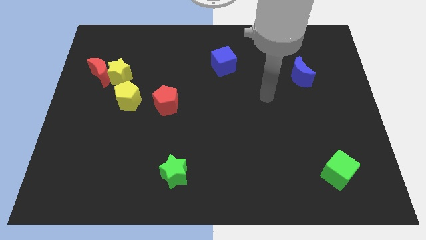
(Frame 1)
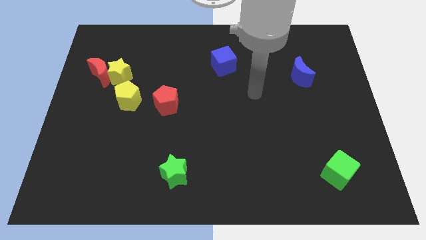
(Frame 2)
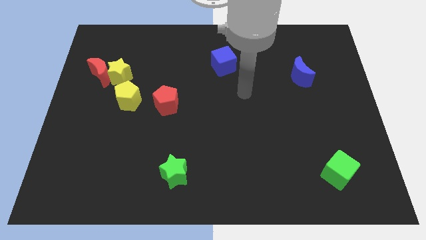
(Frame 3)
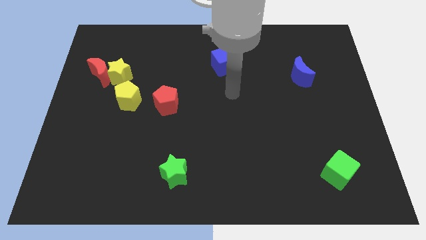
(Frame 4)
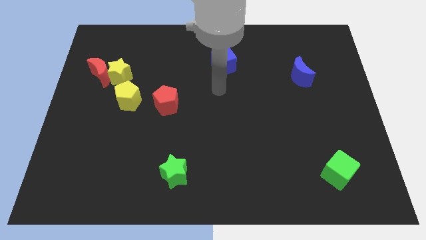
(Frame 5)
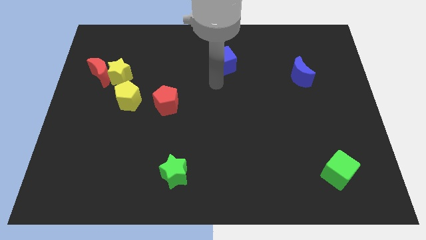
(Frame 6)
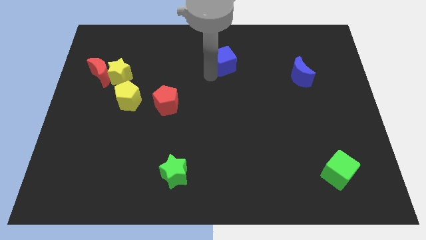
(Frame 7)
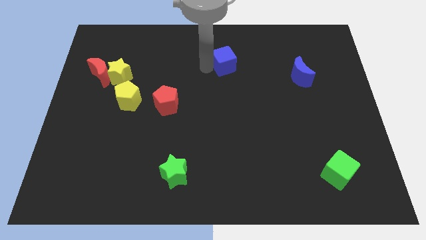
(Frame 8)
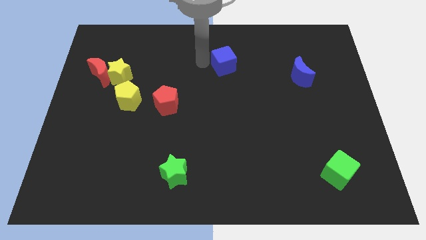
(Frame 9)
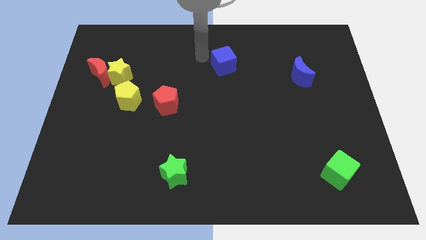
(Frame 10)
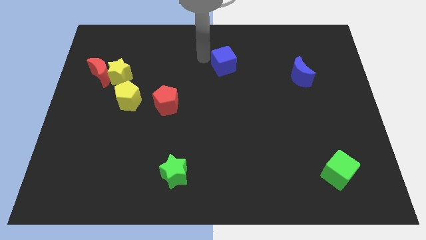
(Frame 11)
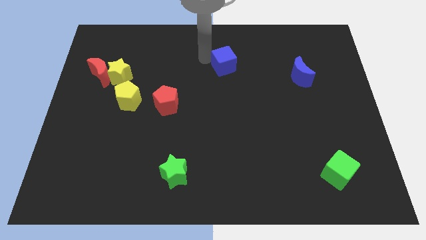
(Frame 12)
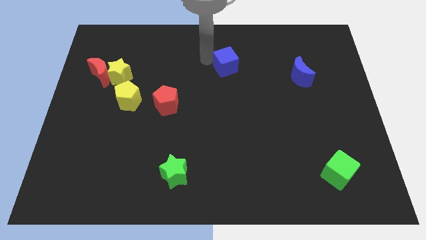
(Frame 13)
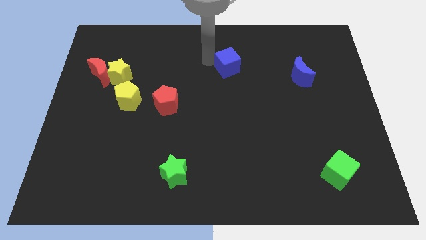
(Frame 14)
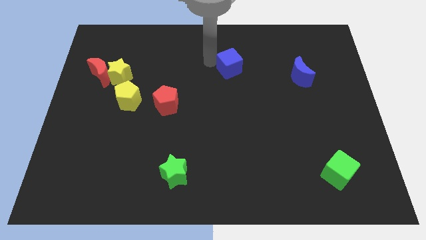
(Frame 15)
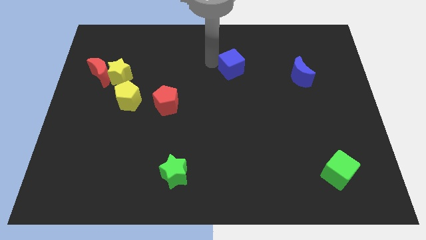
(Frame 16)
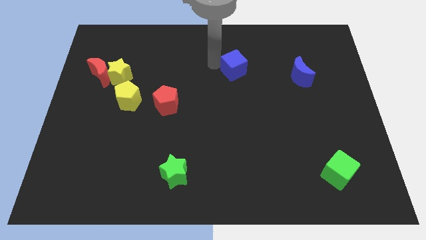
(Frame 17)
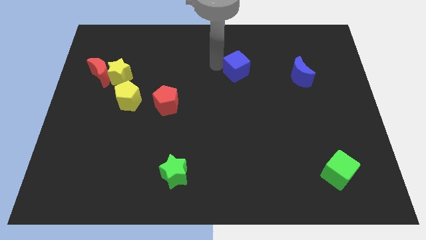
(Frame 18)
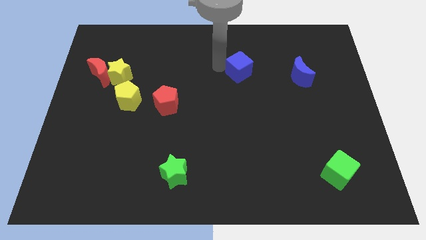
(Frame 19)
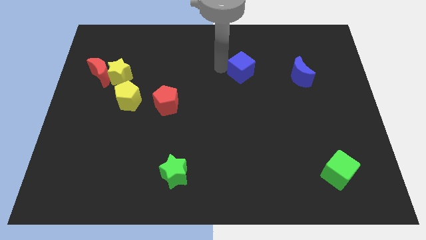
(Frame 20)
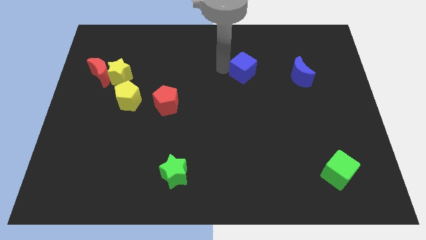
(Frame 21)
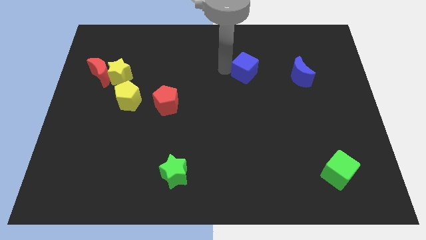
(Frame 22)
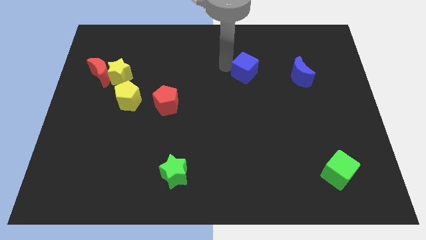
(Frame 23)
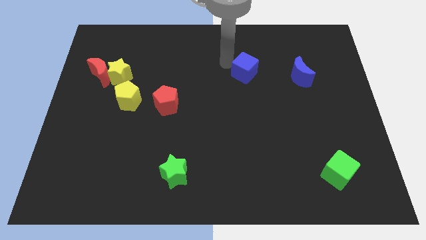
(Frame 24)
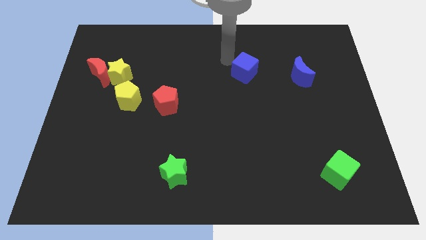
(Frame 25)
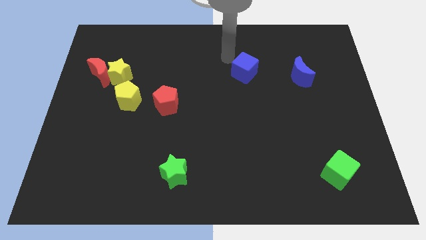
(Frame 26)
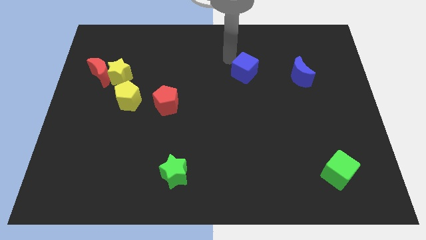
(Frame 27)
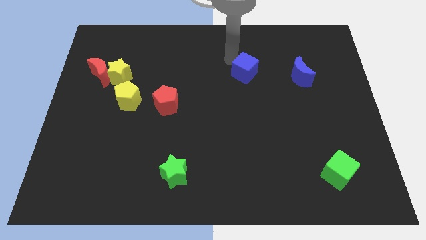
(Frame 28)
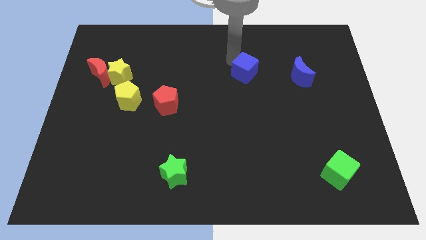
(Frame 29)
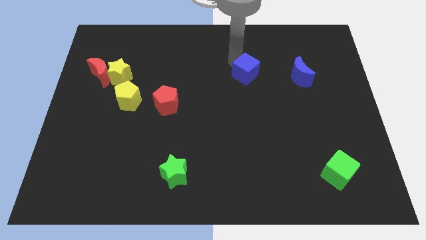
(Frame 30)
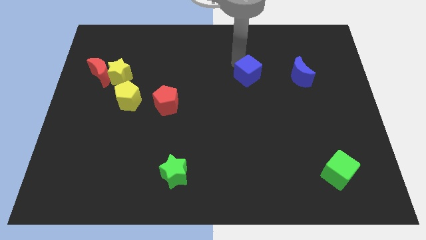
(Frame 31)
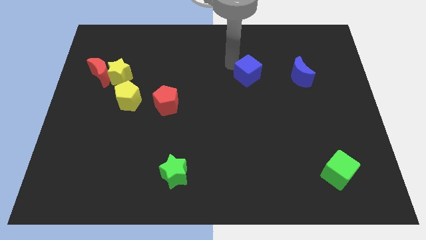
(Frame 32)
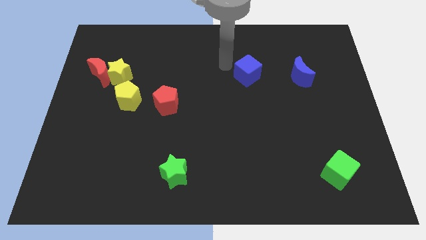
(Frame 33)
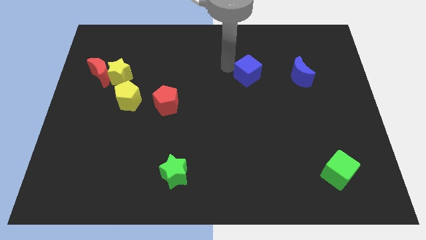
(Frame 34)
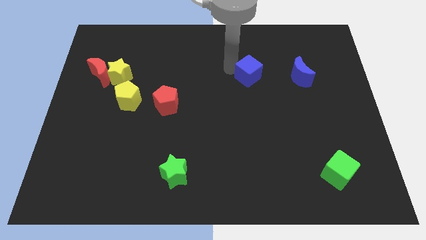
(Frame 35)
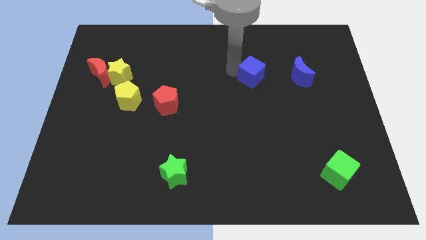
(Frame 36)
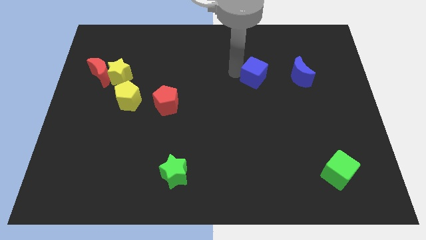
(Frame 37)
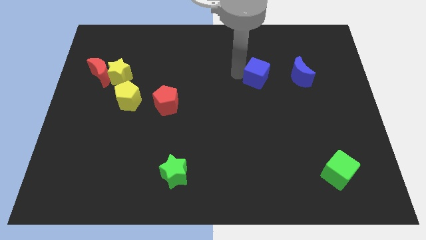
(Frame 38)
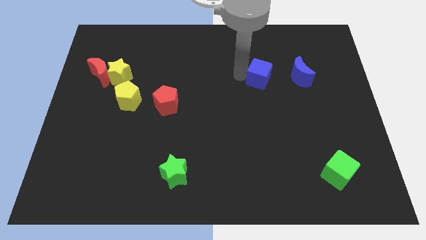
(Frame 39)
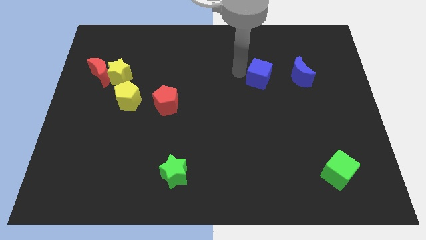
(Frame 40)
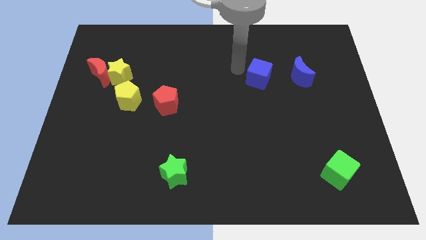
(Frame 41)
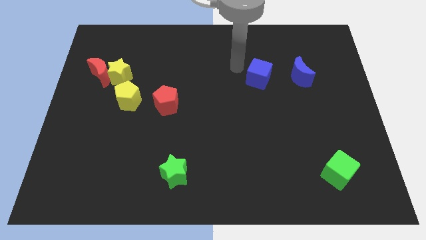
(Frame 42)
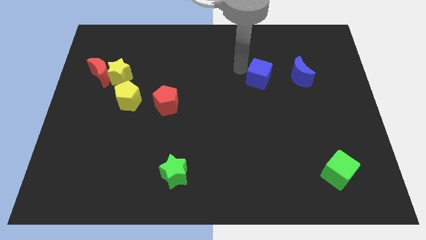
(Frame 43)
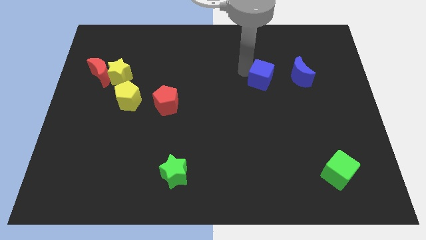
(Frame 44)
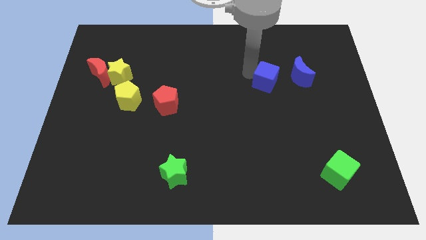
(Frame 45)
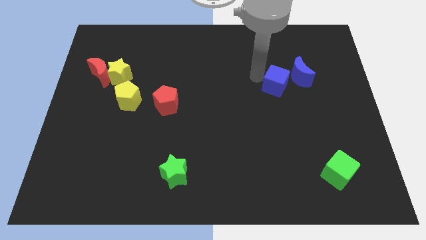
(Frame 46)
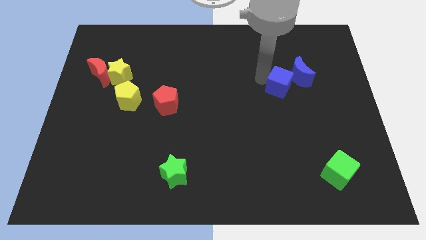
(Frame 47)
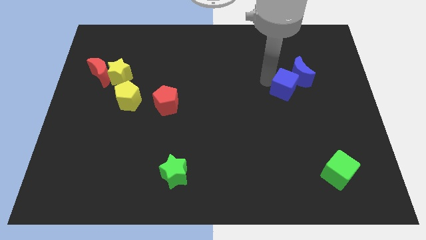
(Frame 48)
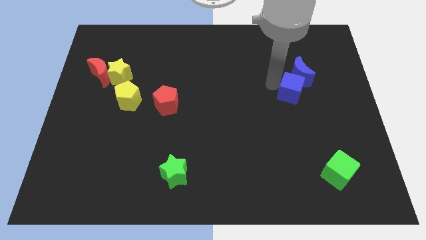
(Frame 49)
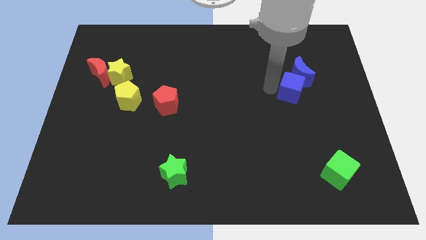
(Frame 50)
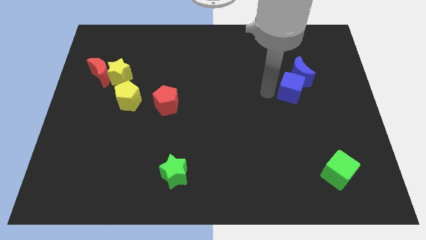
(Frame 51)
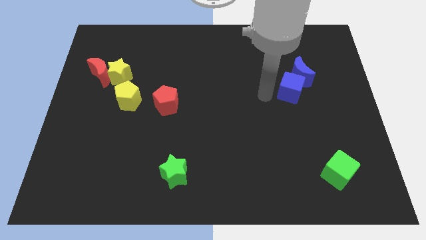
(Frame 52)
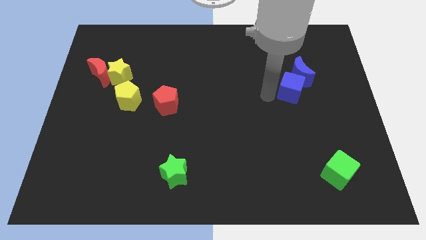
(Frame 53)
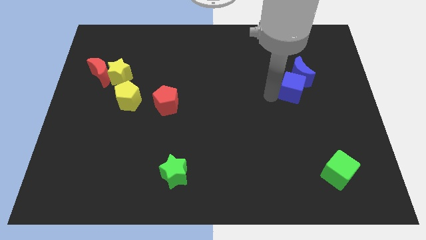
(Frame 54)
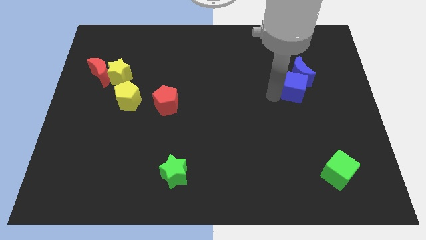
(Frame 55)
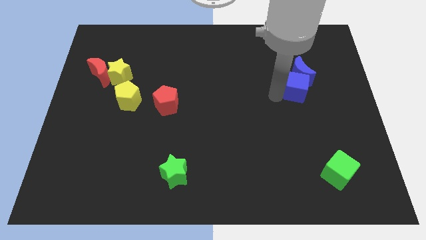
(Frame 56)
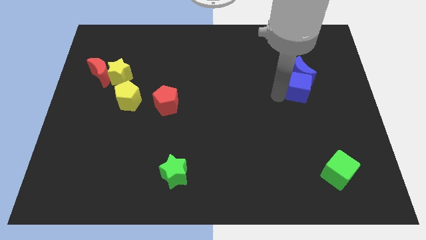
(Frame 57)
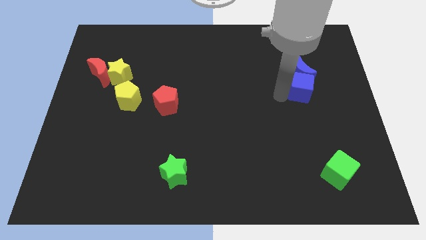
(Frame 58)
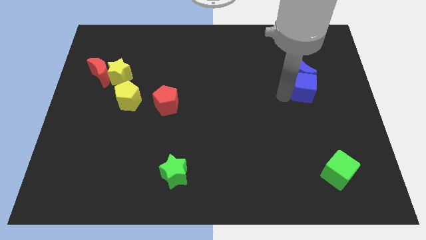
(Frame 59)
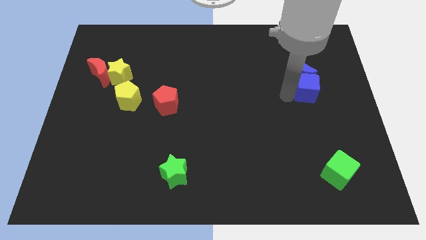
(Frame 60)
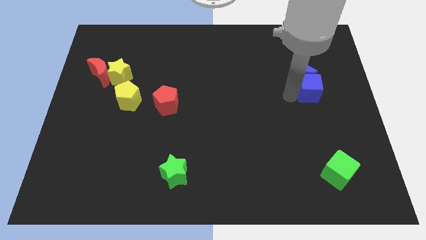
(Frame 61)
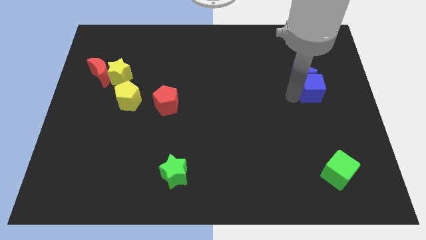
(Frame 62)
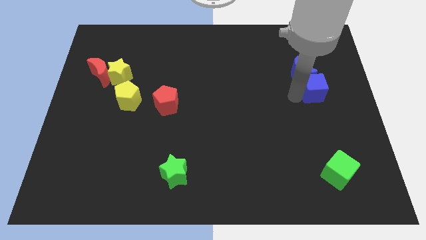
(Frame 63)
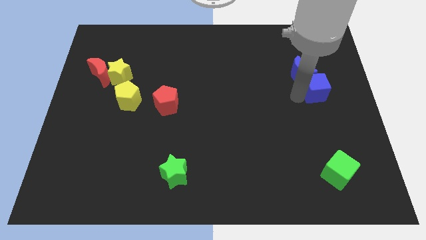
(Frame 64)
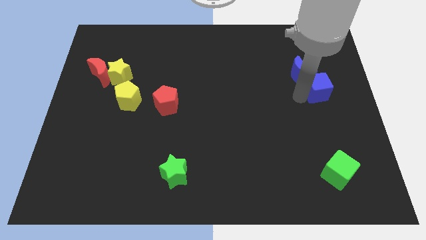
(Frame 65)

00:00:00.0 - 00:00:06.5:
move the blue cube to the right side
